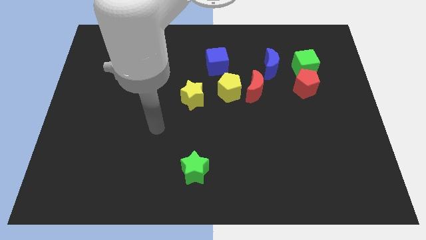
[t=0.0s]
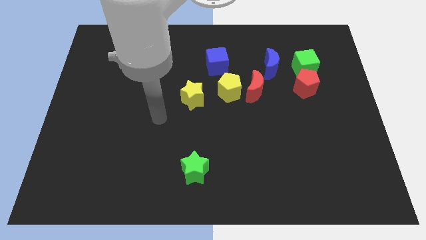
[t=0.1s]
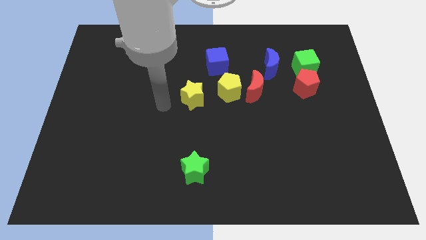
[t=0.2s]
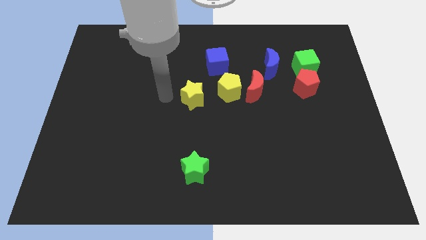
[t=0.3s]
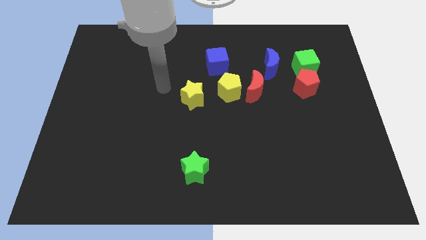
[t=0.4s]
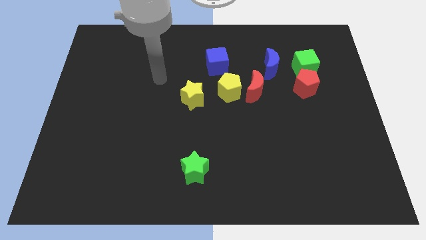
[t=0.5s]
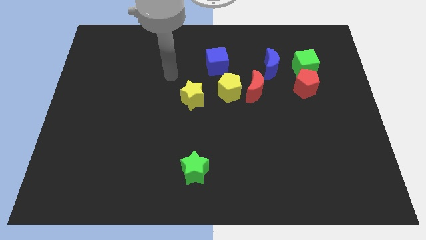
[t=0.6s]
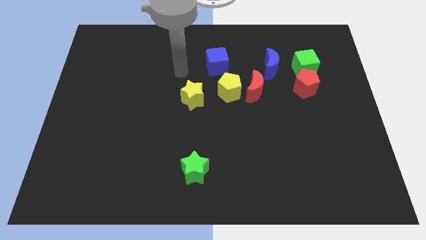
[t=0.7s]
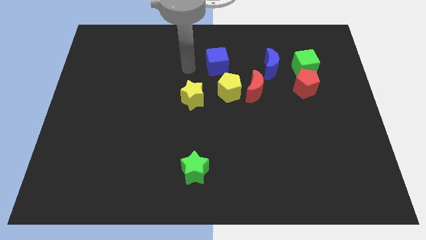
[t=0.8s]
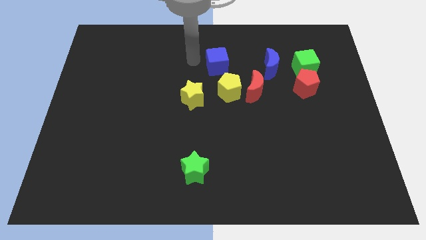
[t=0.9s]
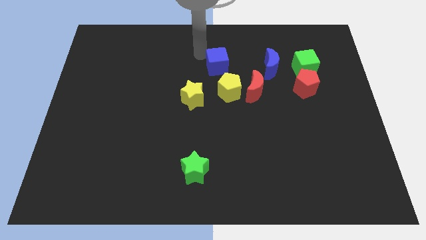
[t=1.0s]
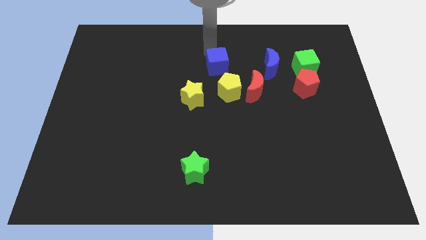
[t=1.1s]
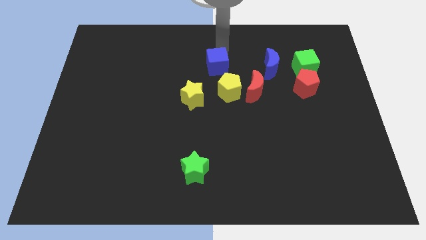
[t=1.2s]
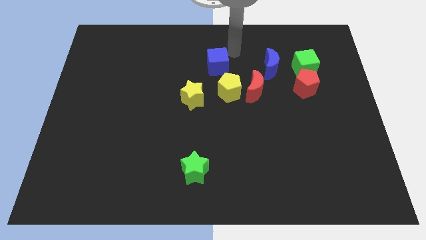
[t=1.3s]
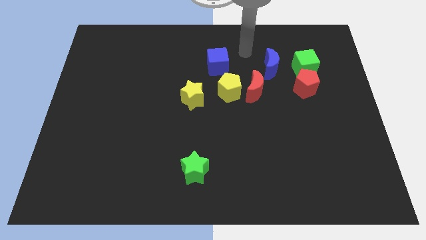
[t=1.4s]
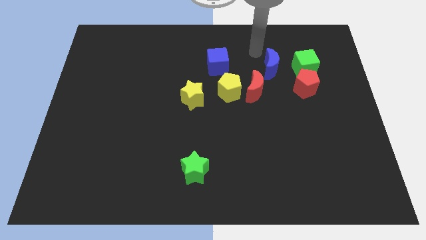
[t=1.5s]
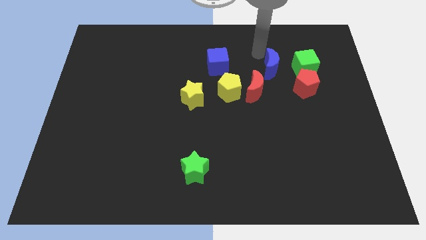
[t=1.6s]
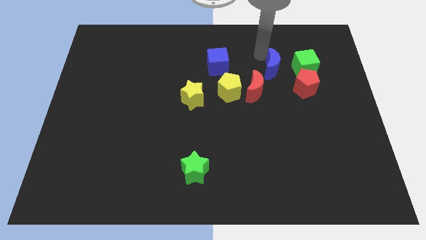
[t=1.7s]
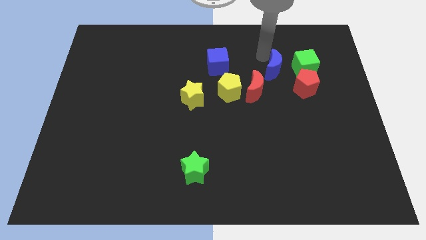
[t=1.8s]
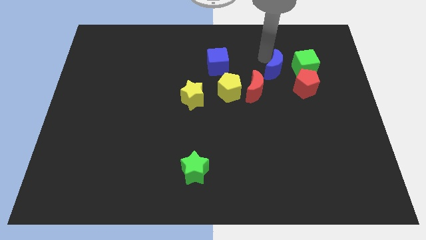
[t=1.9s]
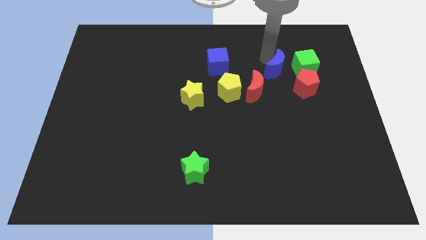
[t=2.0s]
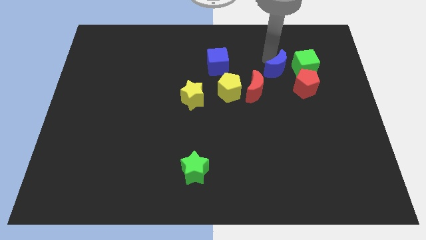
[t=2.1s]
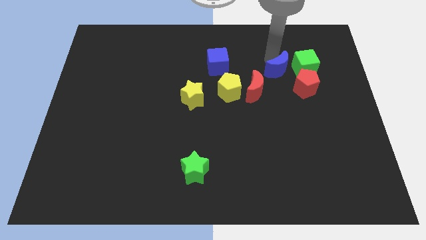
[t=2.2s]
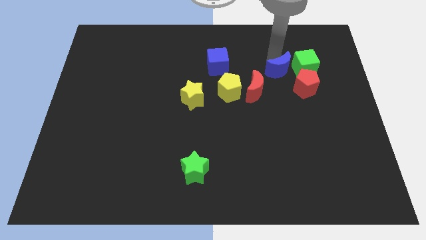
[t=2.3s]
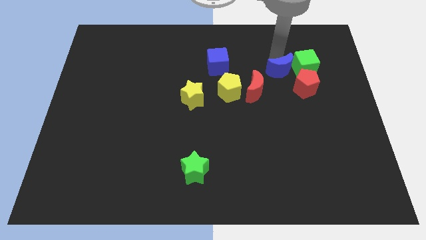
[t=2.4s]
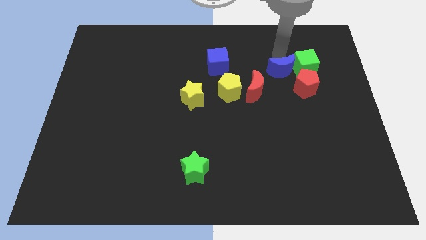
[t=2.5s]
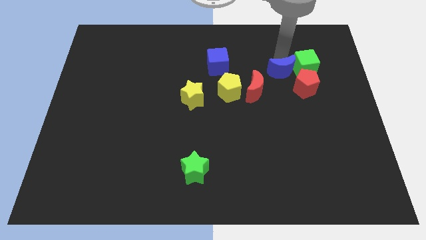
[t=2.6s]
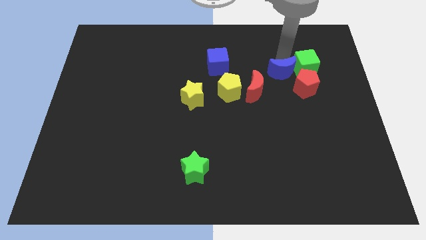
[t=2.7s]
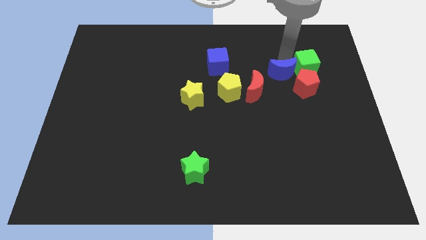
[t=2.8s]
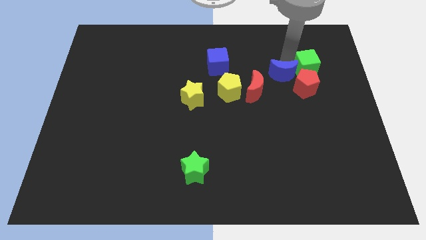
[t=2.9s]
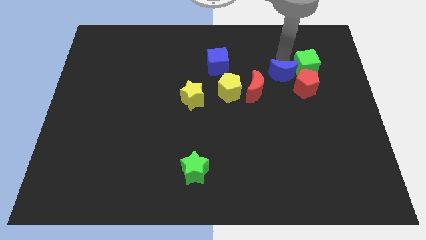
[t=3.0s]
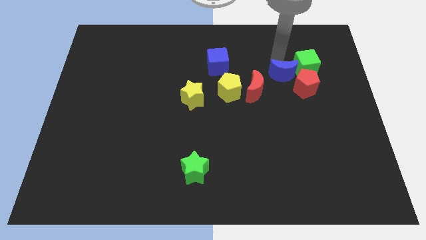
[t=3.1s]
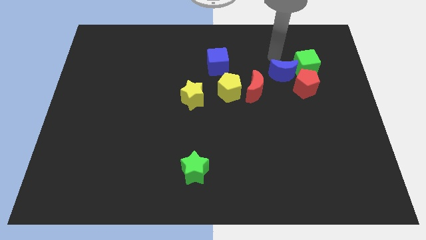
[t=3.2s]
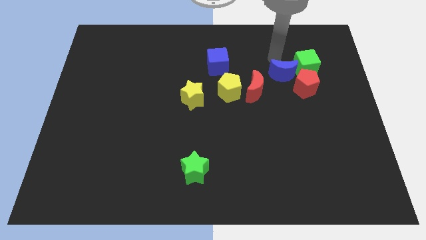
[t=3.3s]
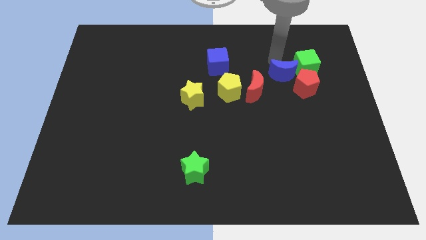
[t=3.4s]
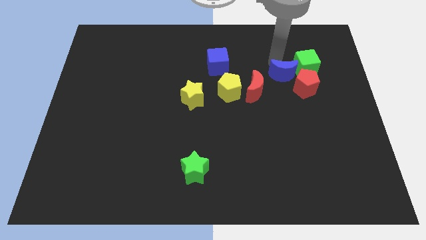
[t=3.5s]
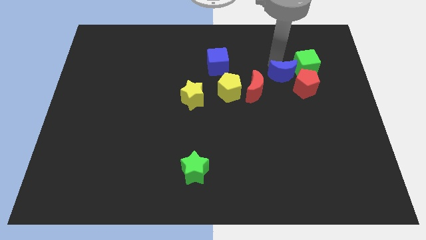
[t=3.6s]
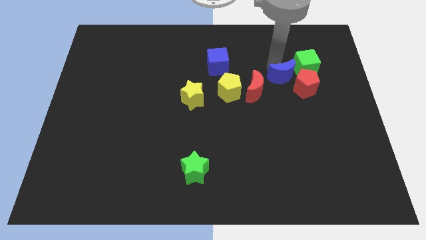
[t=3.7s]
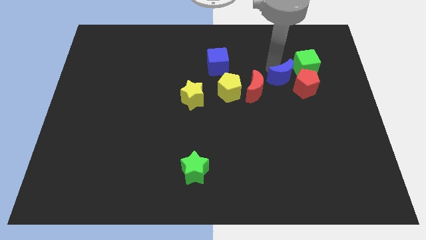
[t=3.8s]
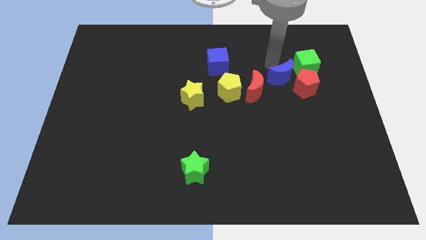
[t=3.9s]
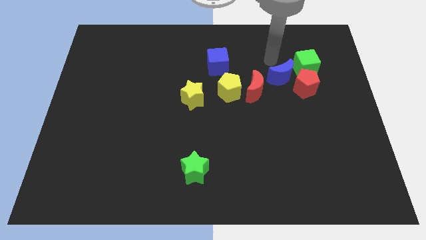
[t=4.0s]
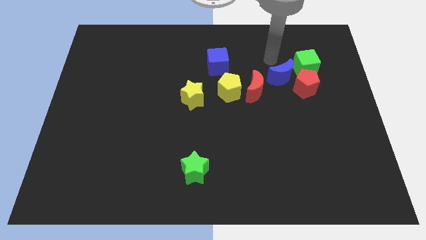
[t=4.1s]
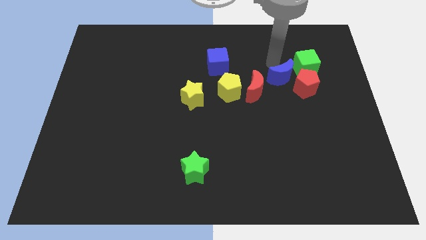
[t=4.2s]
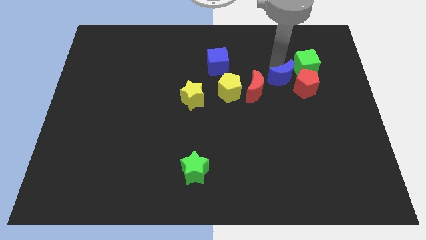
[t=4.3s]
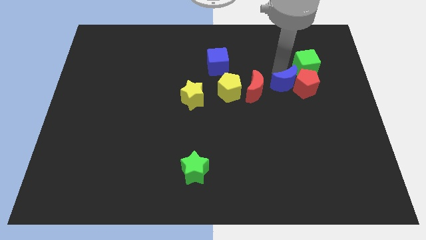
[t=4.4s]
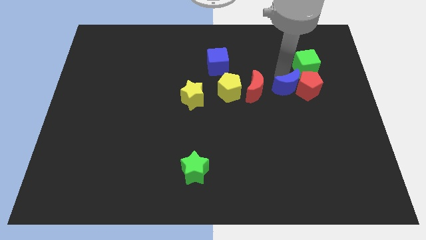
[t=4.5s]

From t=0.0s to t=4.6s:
slightly move the blue moon down and to the right

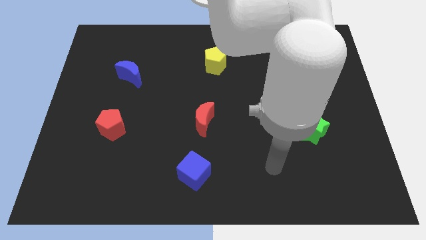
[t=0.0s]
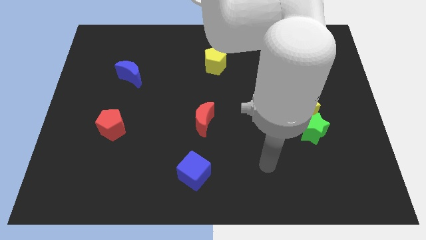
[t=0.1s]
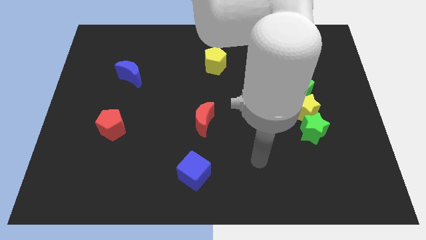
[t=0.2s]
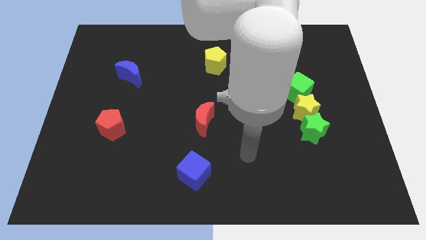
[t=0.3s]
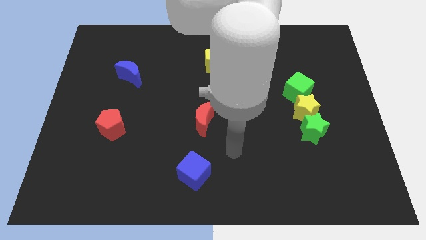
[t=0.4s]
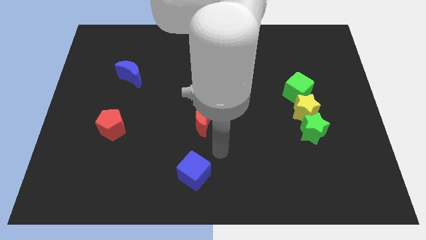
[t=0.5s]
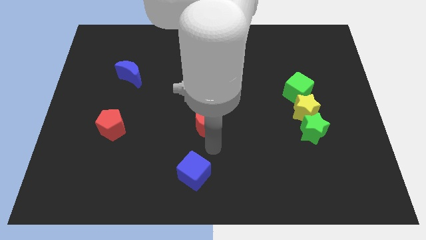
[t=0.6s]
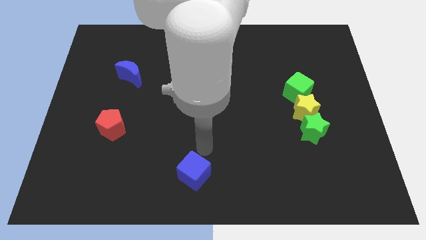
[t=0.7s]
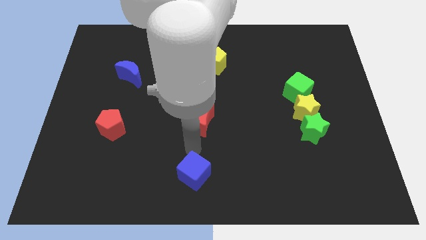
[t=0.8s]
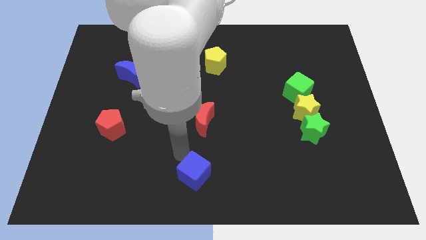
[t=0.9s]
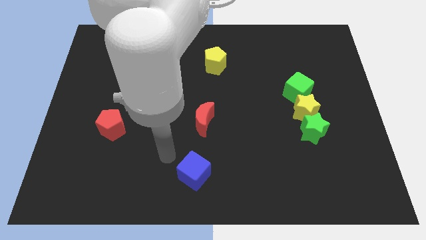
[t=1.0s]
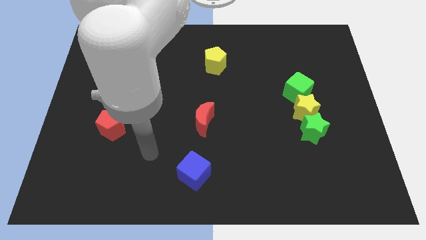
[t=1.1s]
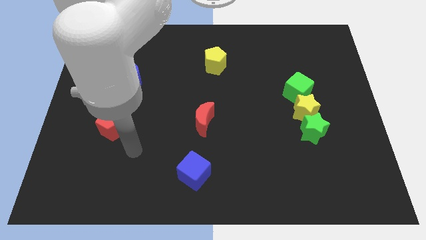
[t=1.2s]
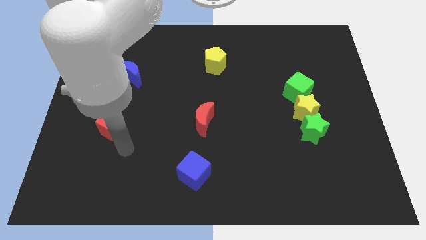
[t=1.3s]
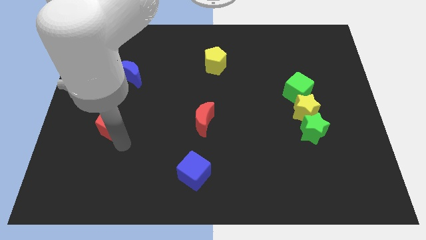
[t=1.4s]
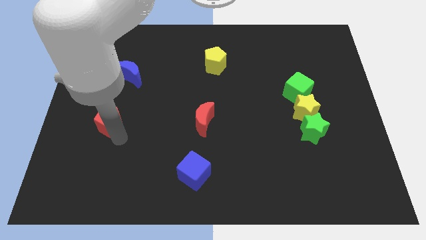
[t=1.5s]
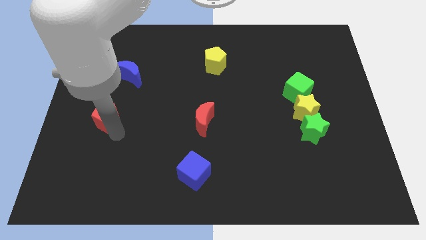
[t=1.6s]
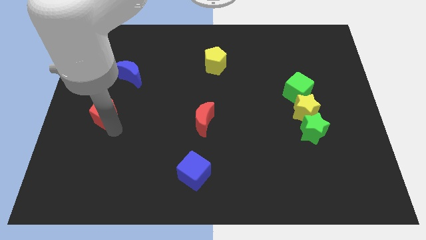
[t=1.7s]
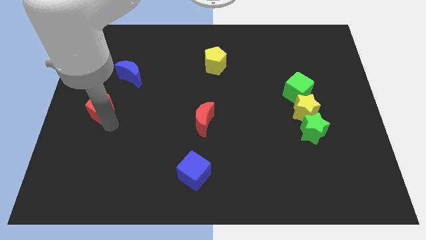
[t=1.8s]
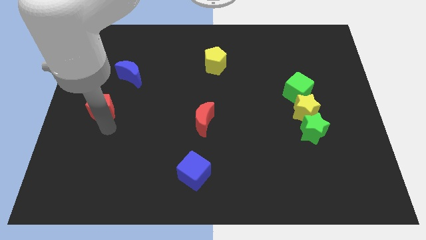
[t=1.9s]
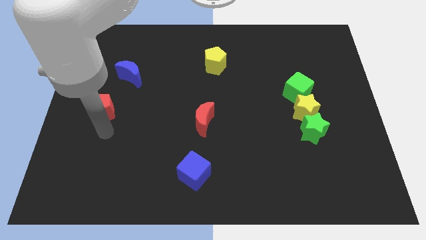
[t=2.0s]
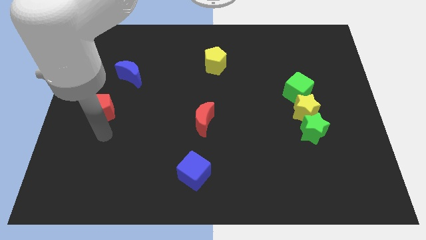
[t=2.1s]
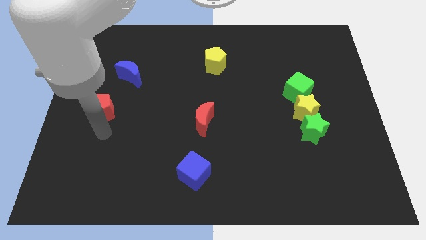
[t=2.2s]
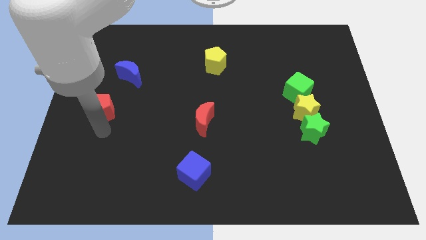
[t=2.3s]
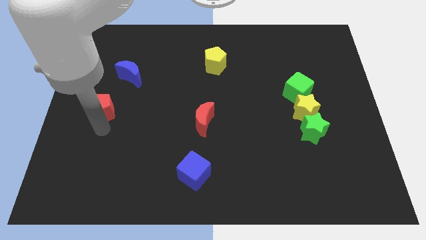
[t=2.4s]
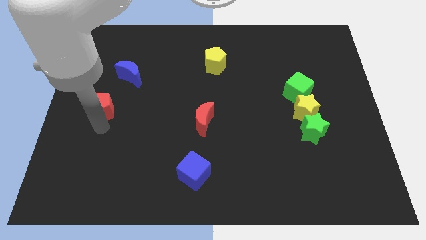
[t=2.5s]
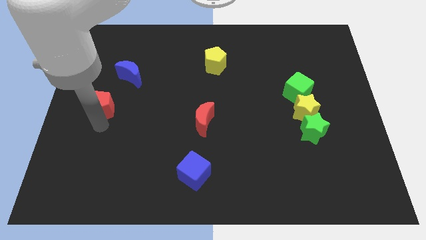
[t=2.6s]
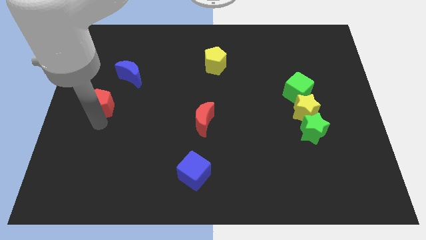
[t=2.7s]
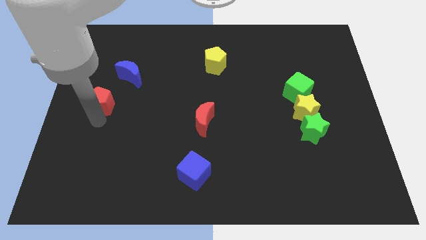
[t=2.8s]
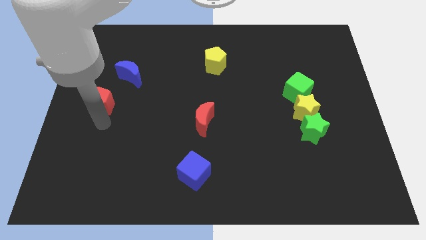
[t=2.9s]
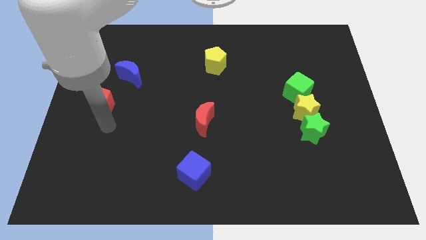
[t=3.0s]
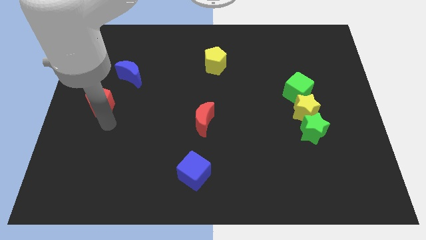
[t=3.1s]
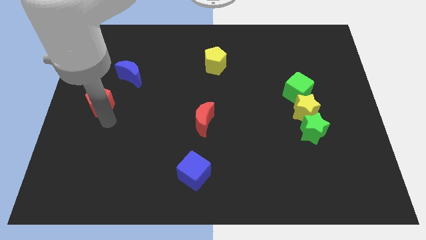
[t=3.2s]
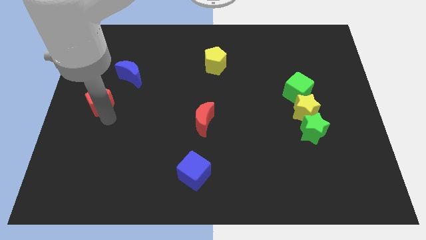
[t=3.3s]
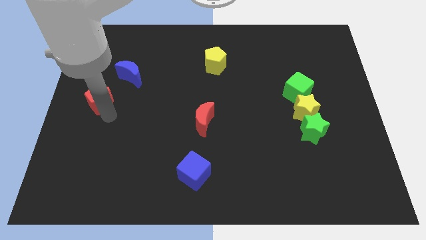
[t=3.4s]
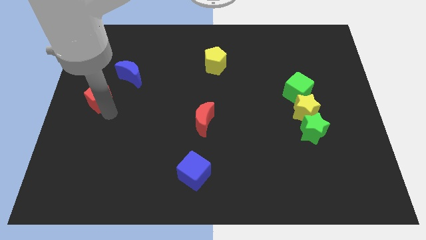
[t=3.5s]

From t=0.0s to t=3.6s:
move the red pentagon a little up
